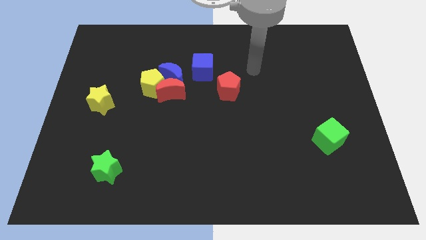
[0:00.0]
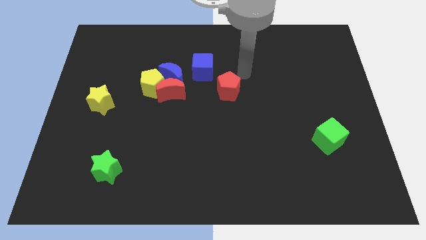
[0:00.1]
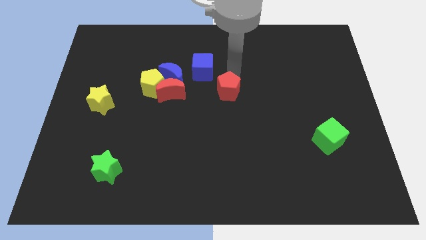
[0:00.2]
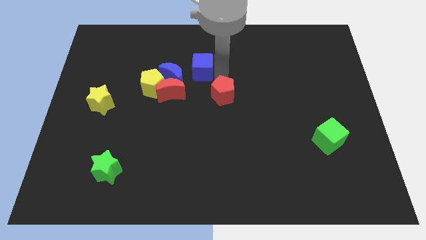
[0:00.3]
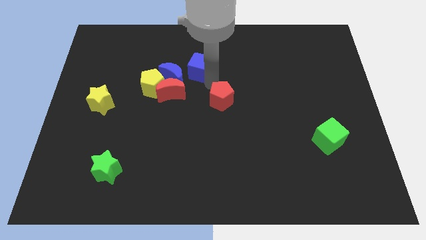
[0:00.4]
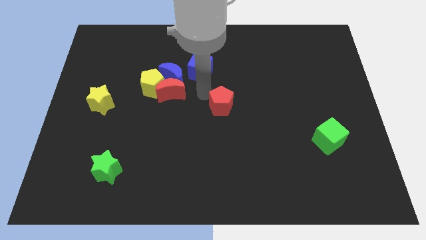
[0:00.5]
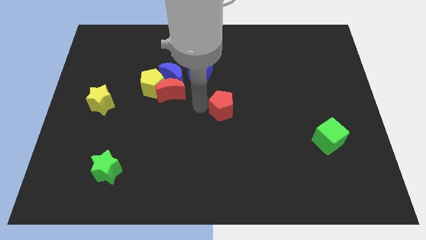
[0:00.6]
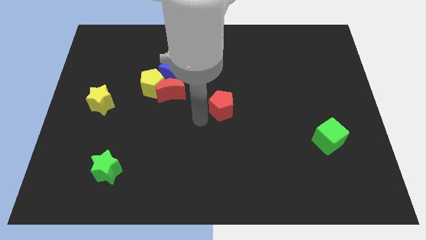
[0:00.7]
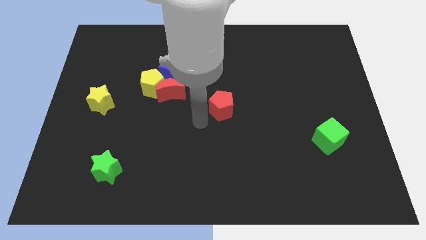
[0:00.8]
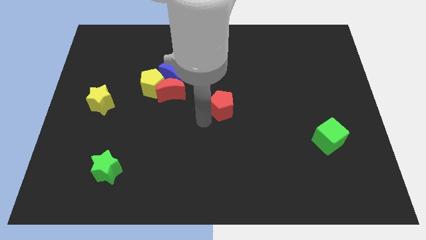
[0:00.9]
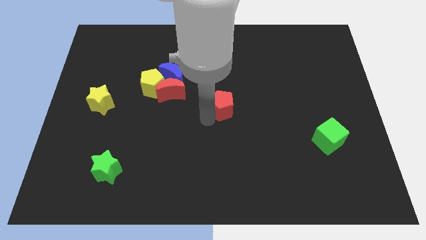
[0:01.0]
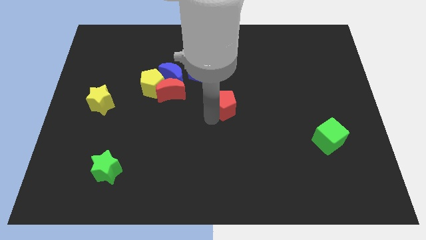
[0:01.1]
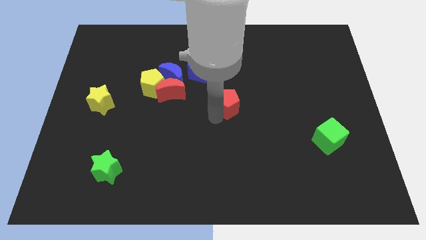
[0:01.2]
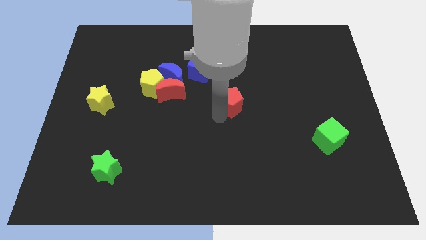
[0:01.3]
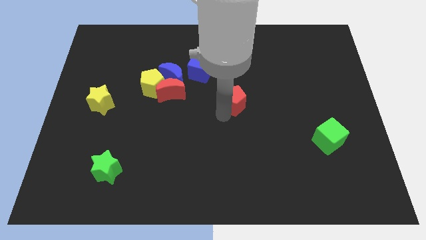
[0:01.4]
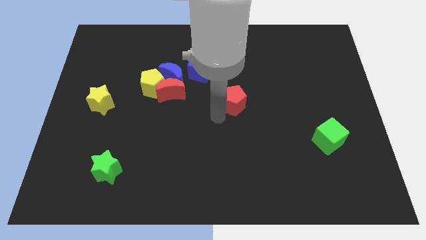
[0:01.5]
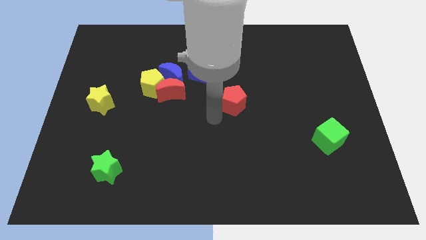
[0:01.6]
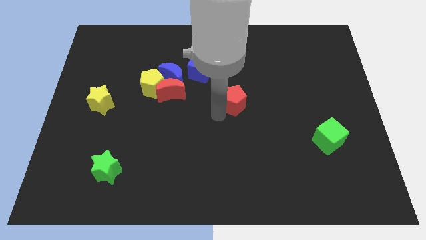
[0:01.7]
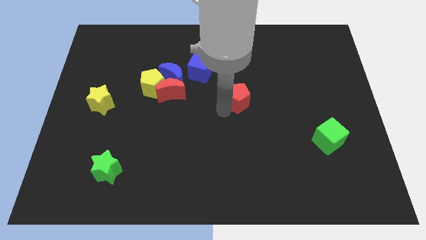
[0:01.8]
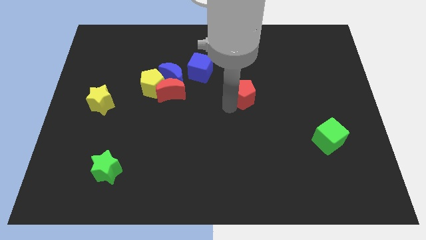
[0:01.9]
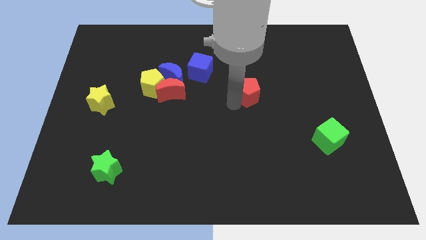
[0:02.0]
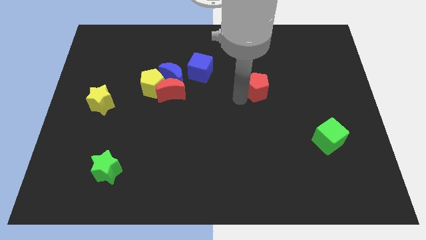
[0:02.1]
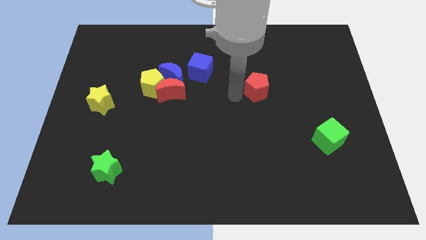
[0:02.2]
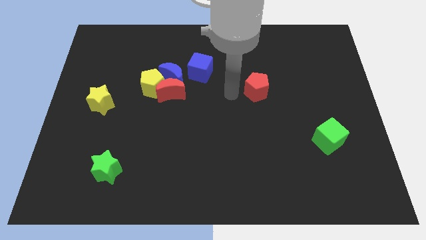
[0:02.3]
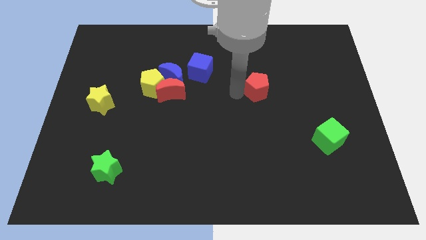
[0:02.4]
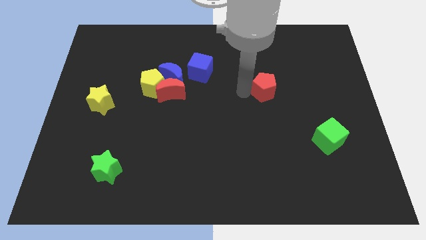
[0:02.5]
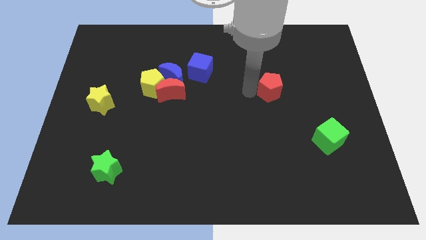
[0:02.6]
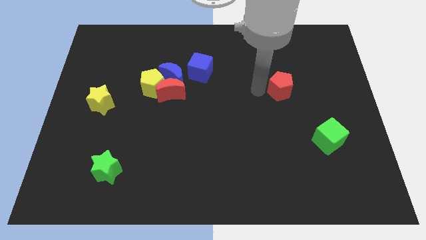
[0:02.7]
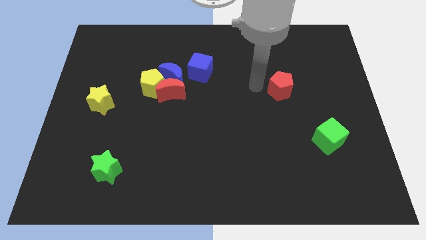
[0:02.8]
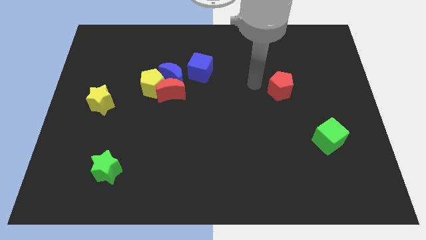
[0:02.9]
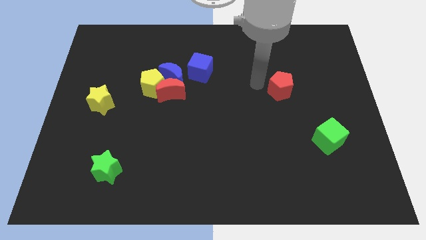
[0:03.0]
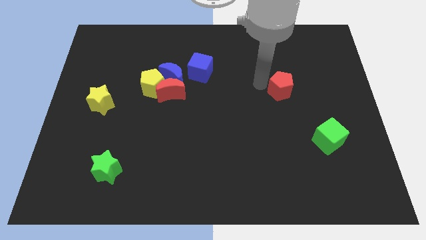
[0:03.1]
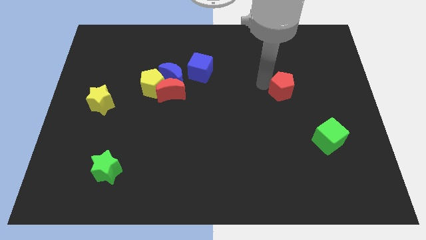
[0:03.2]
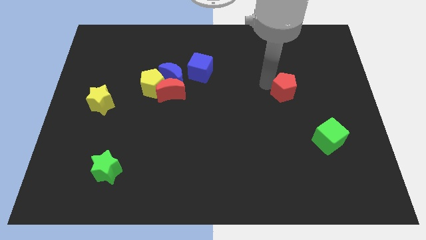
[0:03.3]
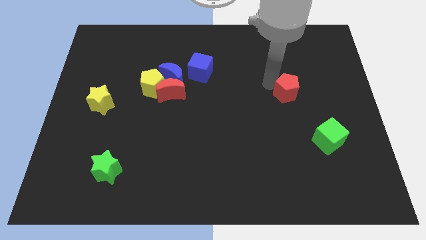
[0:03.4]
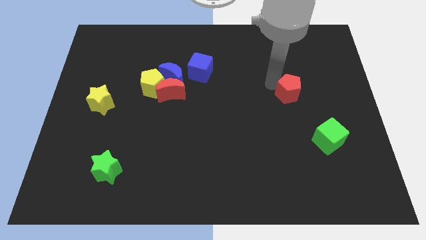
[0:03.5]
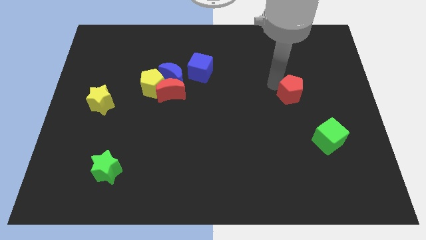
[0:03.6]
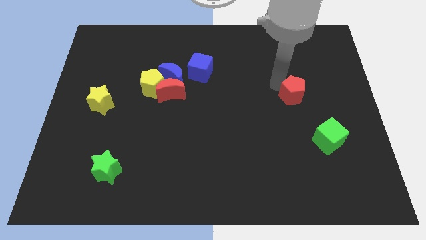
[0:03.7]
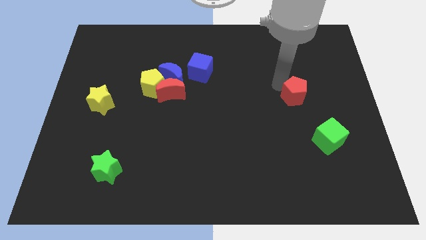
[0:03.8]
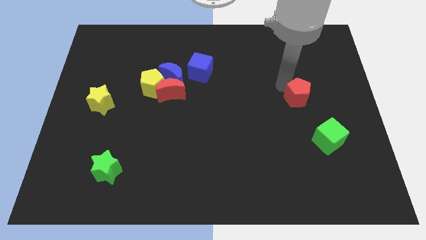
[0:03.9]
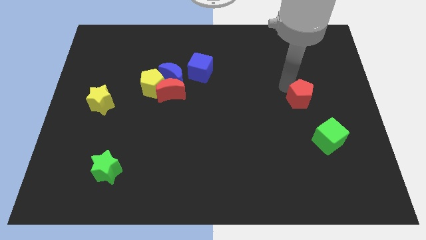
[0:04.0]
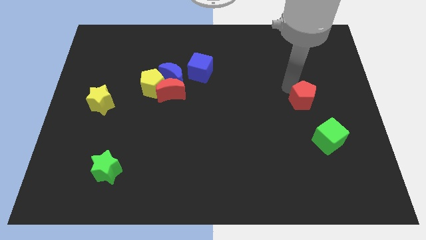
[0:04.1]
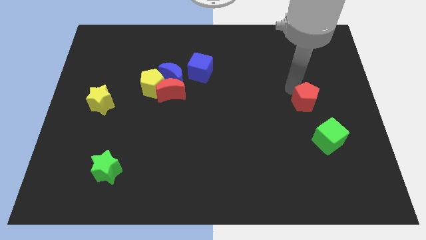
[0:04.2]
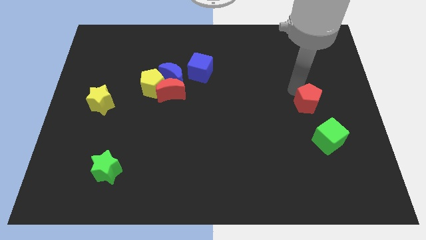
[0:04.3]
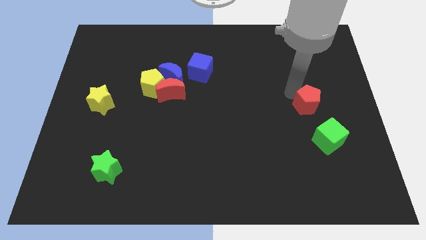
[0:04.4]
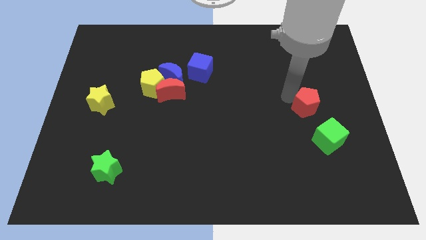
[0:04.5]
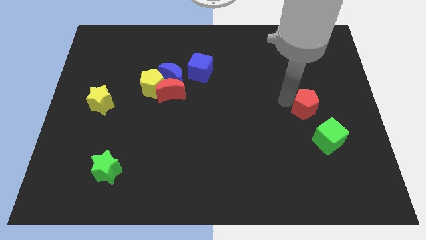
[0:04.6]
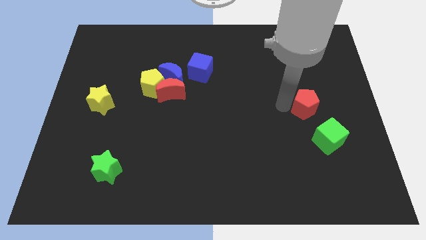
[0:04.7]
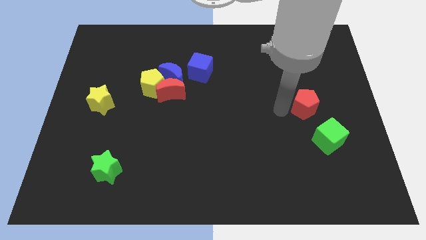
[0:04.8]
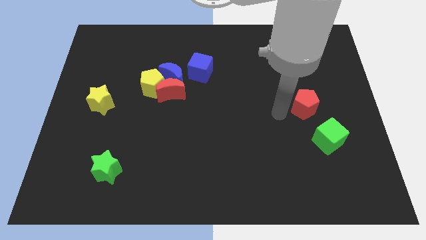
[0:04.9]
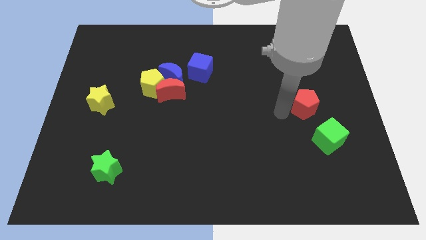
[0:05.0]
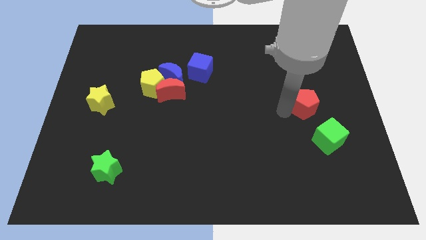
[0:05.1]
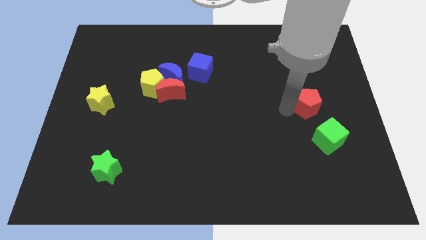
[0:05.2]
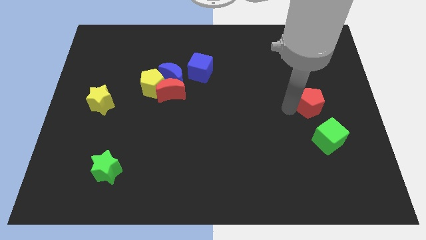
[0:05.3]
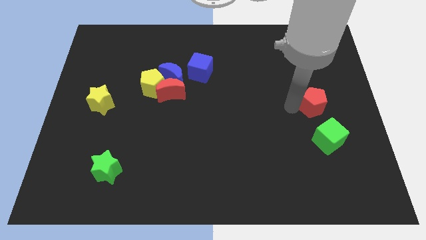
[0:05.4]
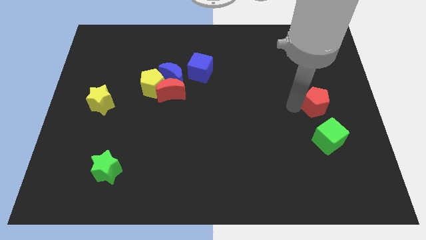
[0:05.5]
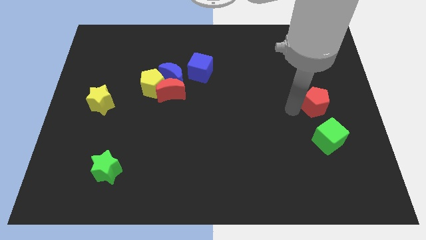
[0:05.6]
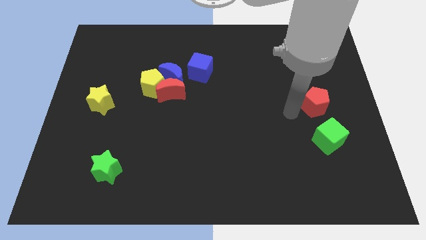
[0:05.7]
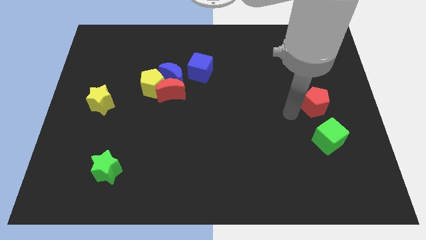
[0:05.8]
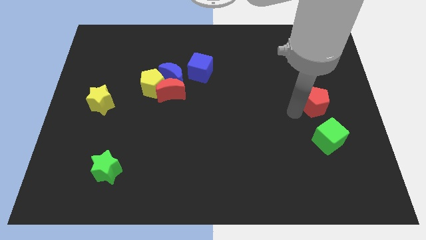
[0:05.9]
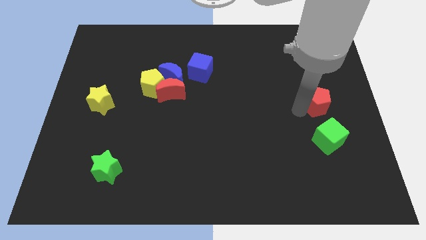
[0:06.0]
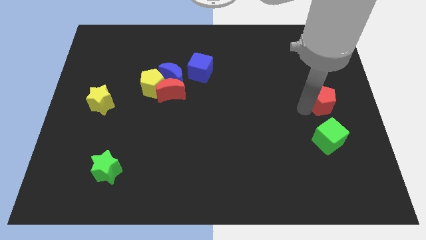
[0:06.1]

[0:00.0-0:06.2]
move the red pentagon to the right side of the board
